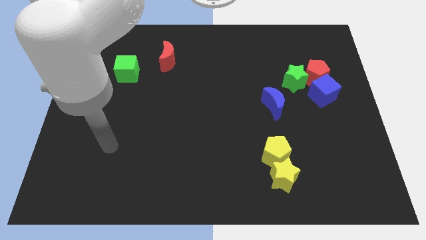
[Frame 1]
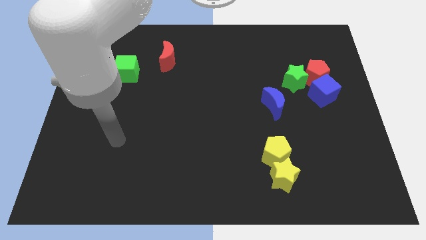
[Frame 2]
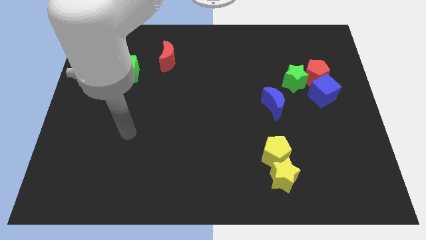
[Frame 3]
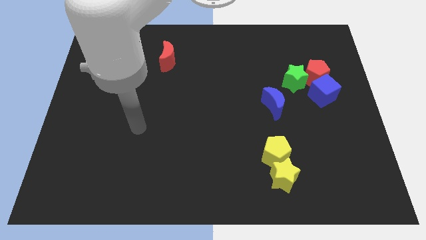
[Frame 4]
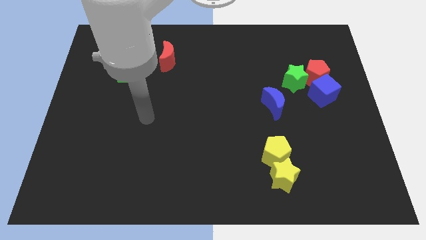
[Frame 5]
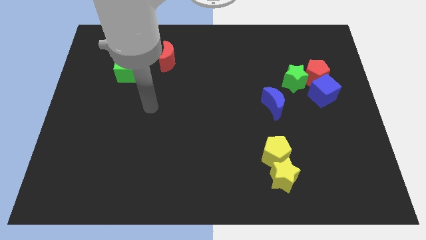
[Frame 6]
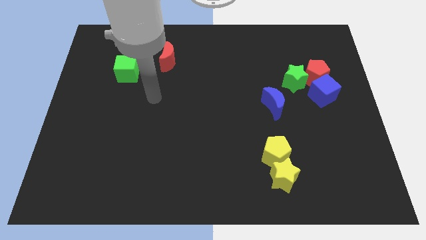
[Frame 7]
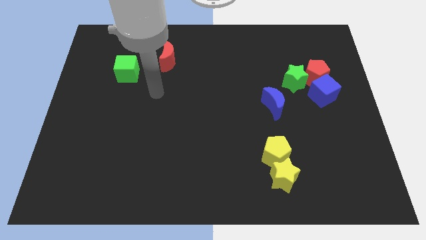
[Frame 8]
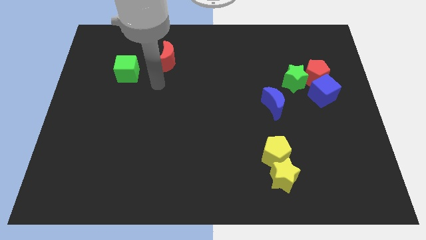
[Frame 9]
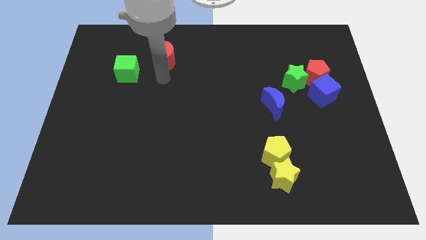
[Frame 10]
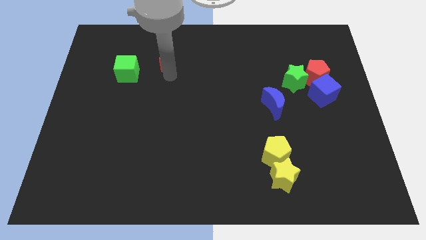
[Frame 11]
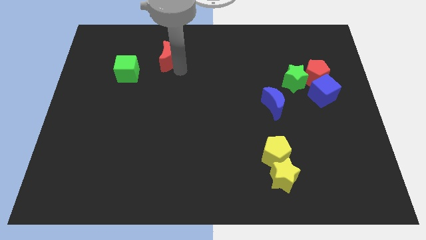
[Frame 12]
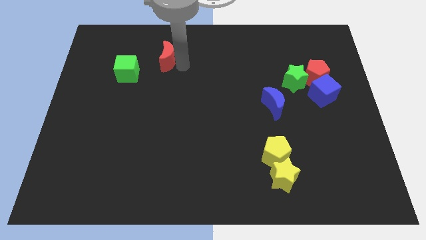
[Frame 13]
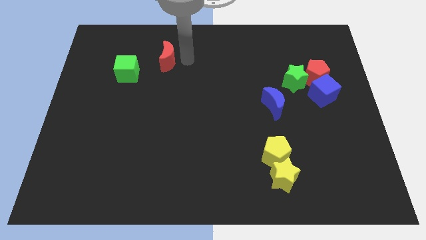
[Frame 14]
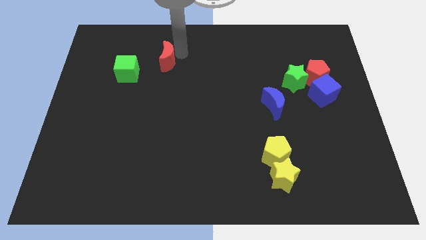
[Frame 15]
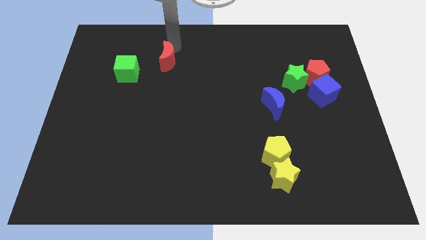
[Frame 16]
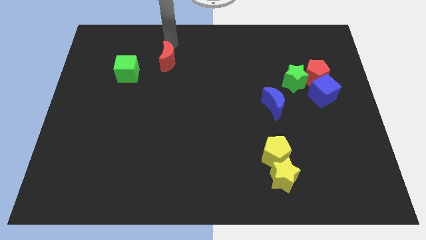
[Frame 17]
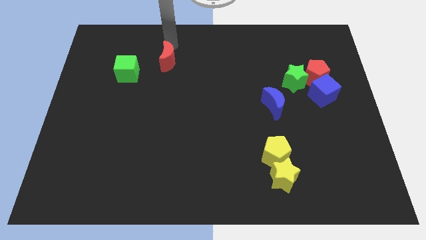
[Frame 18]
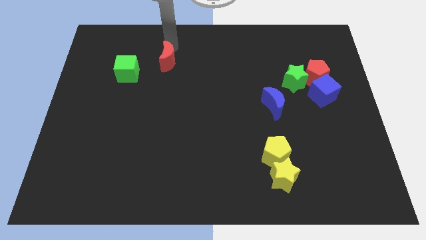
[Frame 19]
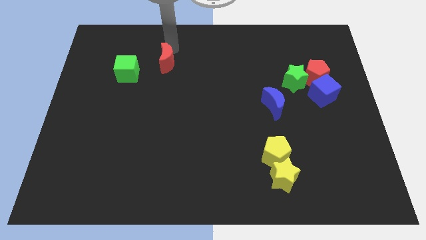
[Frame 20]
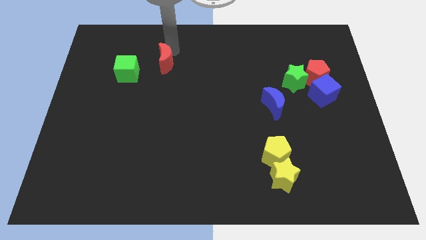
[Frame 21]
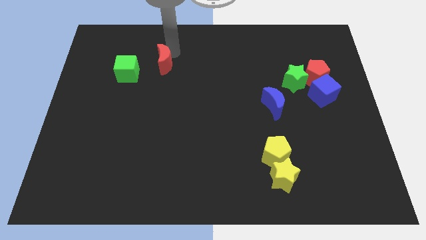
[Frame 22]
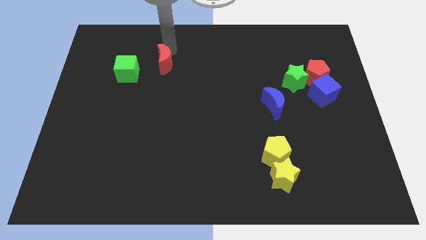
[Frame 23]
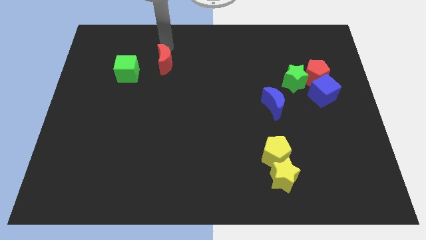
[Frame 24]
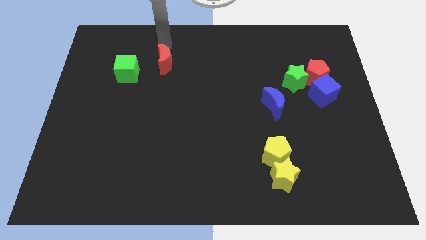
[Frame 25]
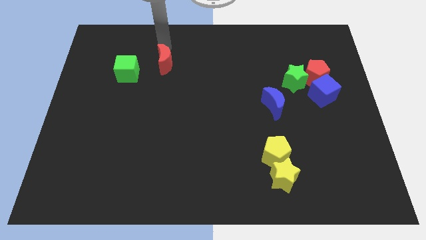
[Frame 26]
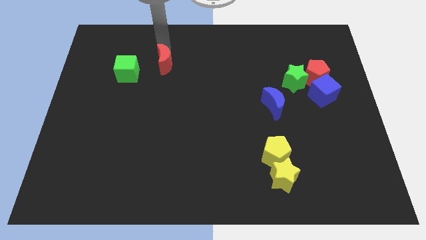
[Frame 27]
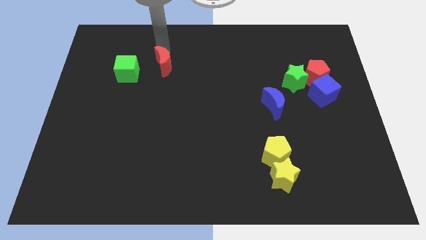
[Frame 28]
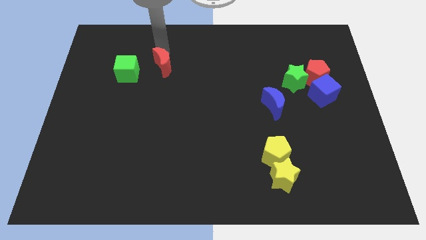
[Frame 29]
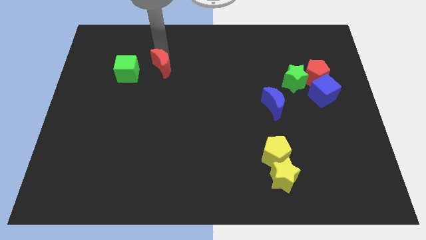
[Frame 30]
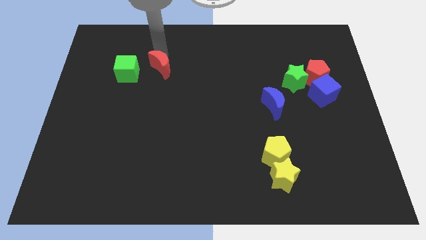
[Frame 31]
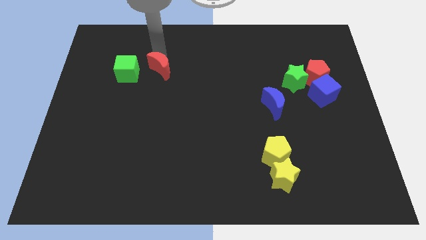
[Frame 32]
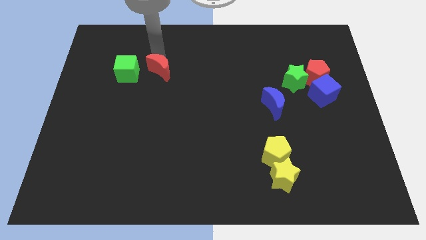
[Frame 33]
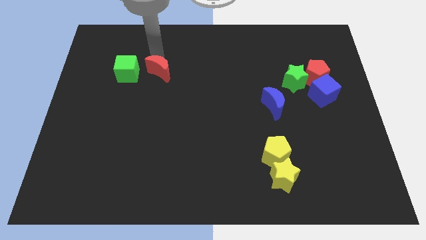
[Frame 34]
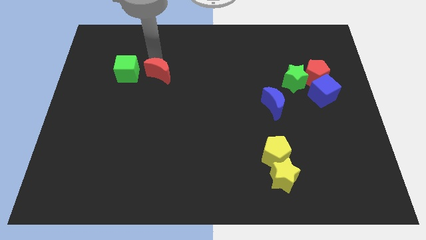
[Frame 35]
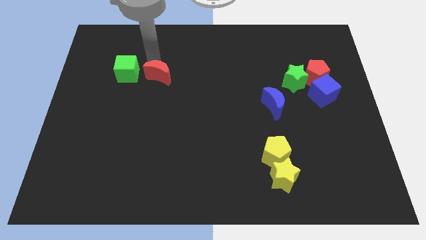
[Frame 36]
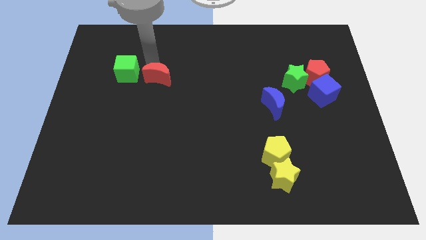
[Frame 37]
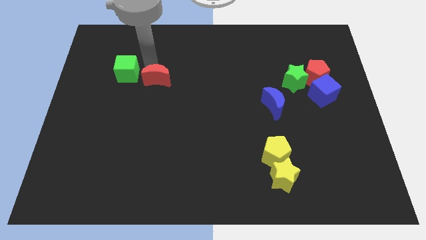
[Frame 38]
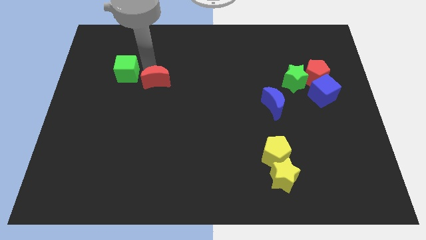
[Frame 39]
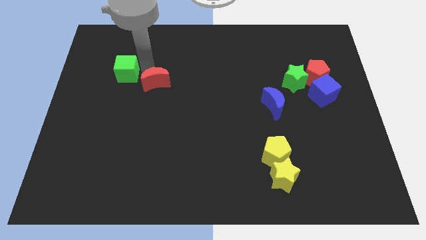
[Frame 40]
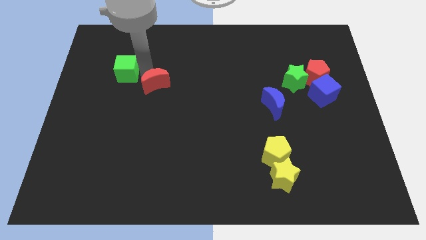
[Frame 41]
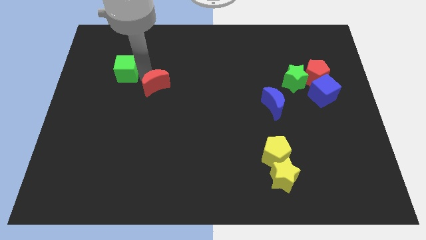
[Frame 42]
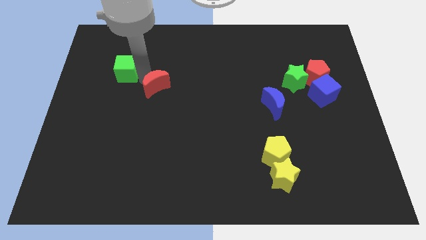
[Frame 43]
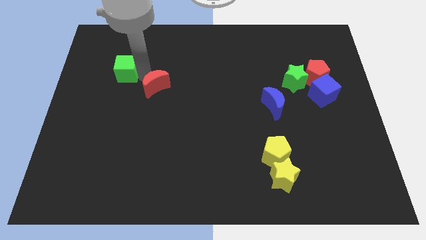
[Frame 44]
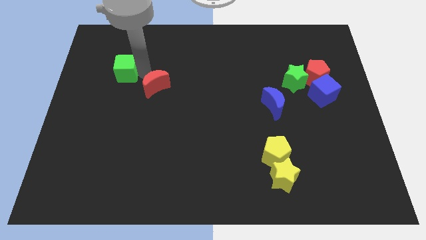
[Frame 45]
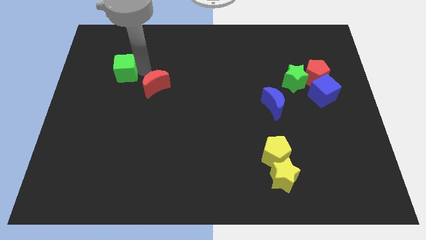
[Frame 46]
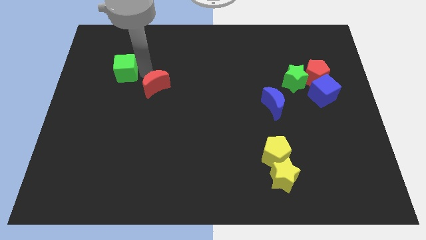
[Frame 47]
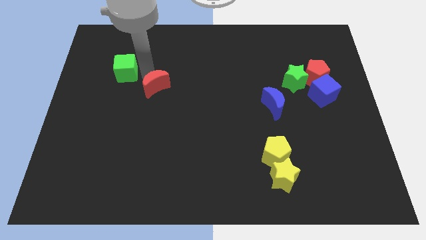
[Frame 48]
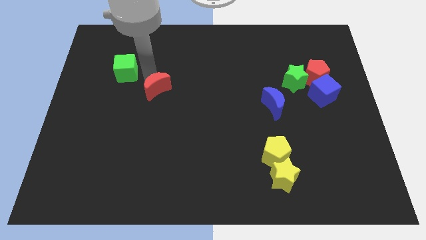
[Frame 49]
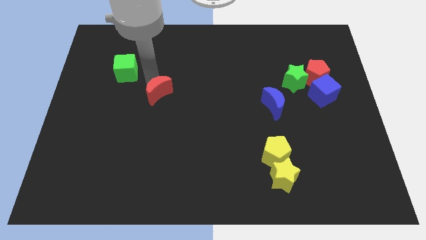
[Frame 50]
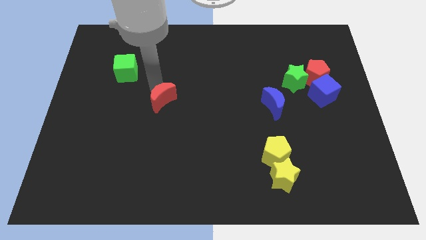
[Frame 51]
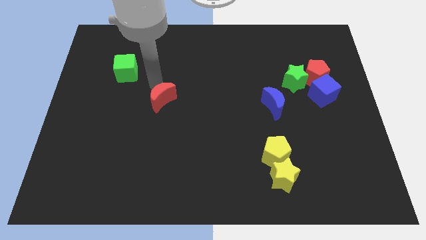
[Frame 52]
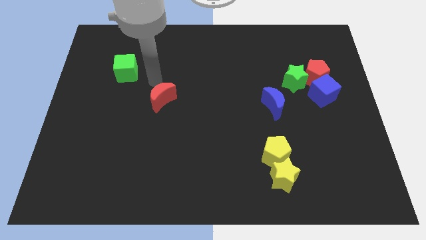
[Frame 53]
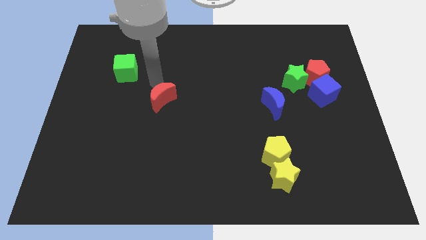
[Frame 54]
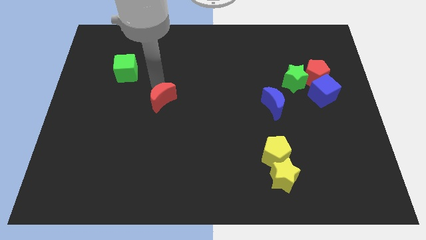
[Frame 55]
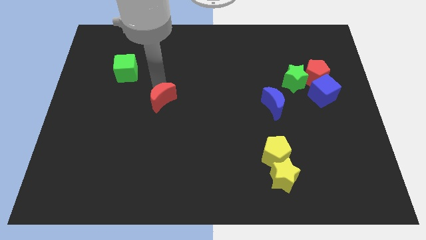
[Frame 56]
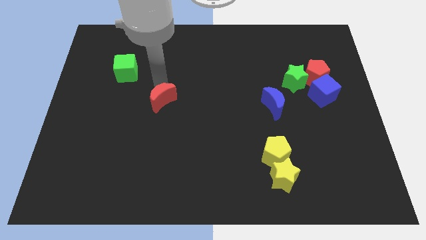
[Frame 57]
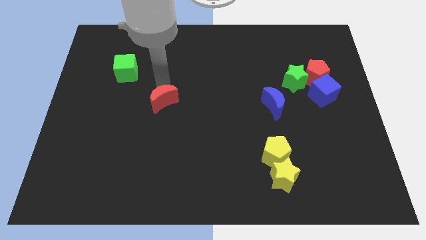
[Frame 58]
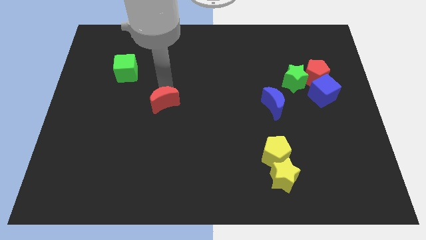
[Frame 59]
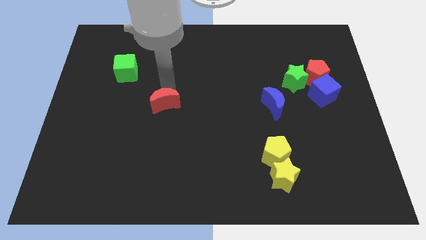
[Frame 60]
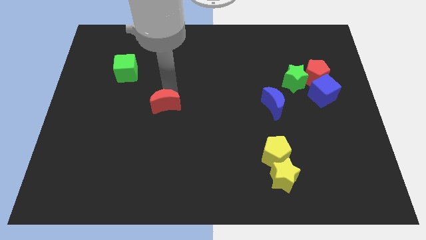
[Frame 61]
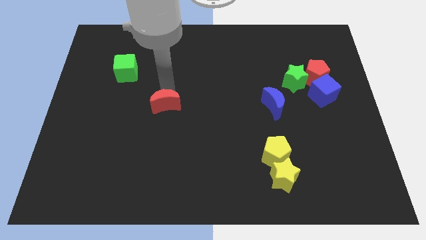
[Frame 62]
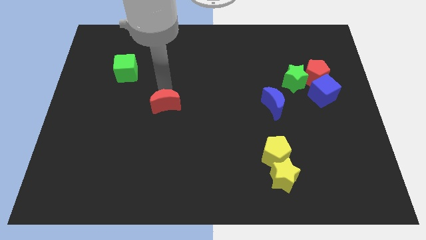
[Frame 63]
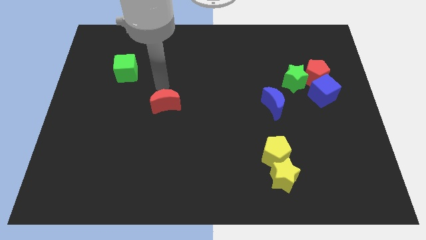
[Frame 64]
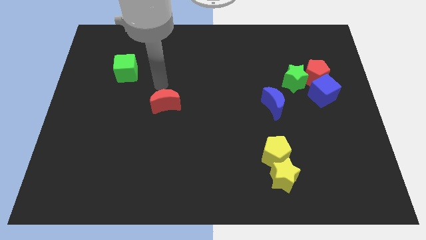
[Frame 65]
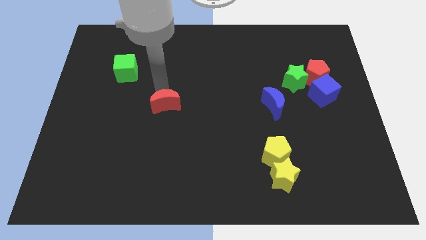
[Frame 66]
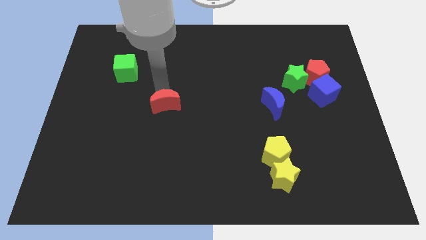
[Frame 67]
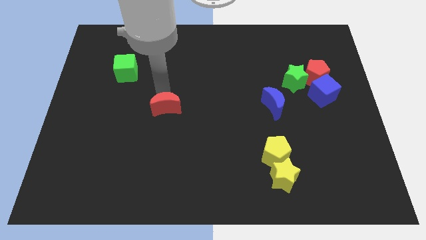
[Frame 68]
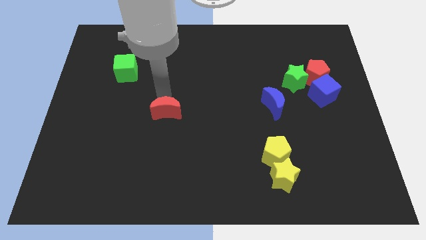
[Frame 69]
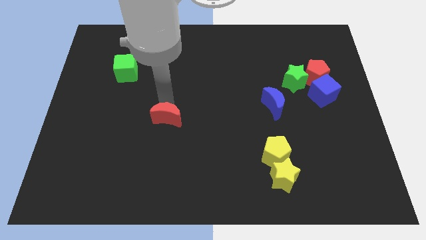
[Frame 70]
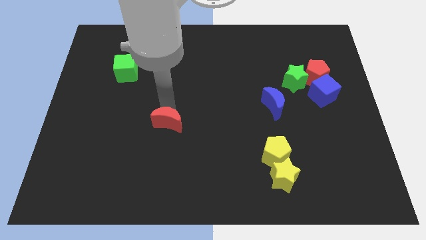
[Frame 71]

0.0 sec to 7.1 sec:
slide the red moon down

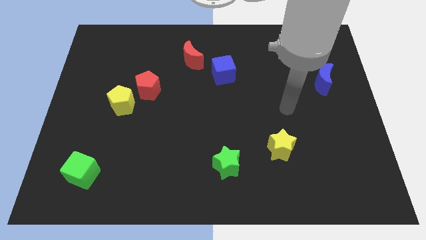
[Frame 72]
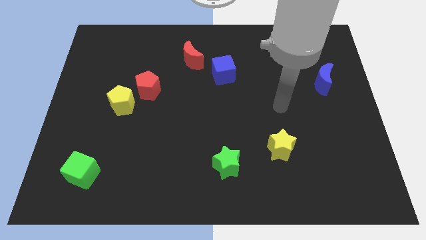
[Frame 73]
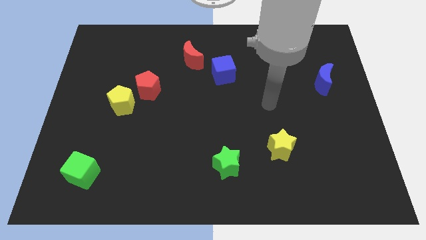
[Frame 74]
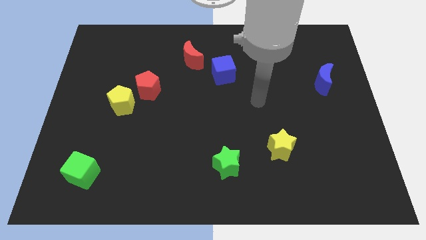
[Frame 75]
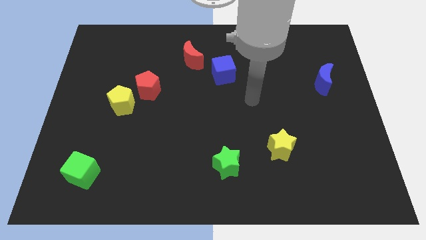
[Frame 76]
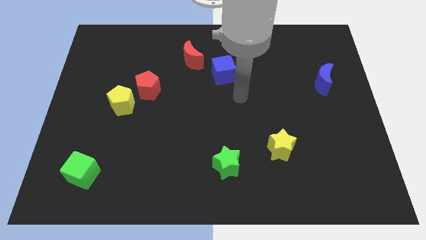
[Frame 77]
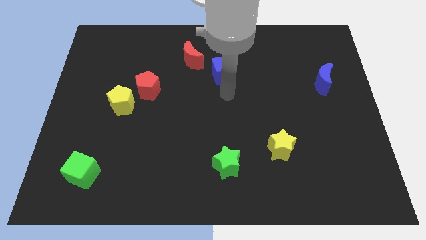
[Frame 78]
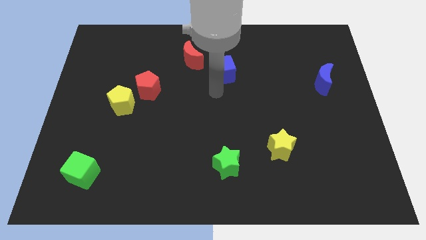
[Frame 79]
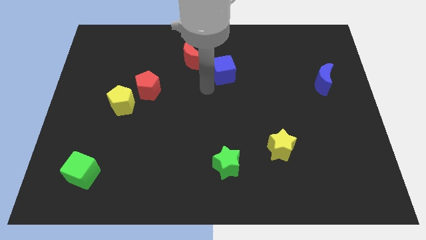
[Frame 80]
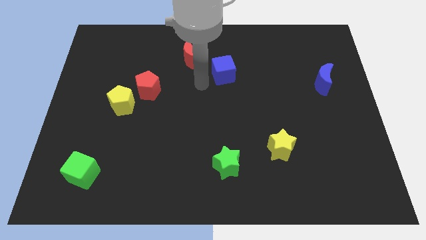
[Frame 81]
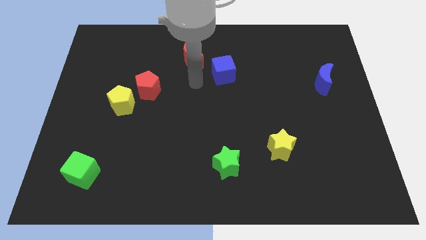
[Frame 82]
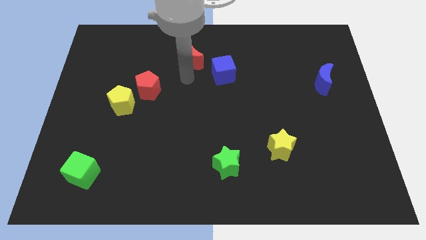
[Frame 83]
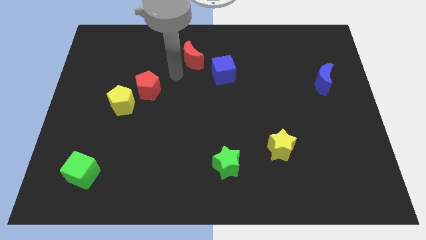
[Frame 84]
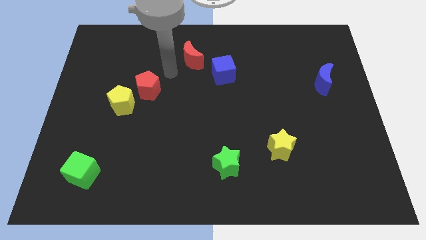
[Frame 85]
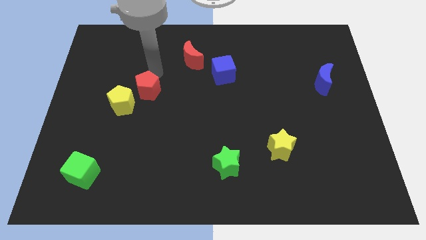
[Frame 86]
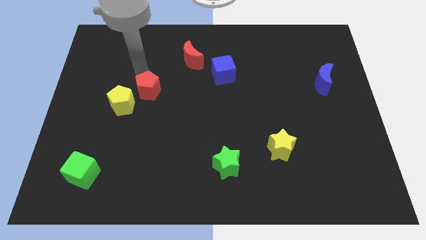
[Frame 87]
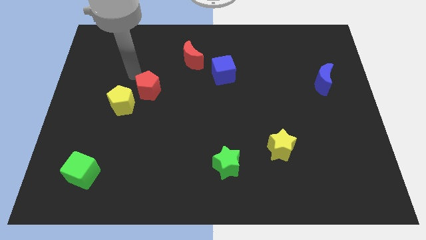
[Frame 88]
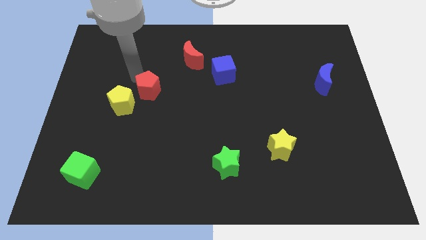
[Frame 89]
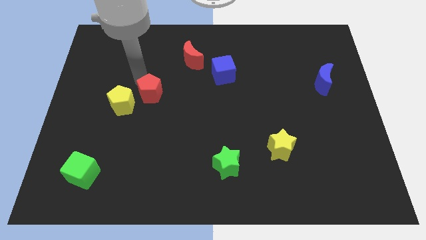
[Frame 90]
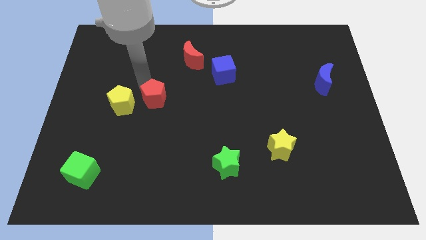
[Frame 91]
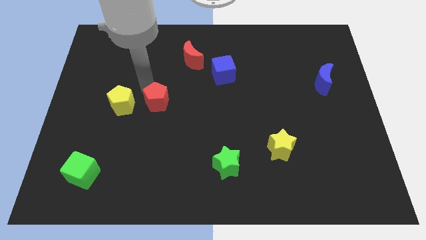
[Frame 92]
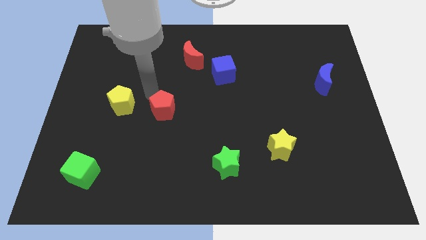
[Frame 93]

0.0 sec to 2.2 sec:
slide the red pentagon slightly downwards and right
